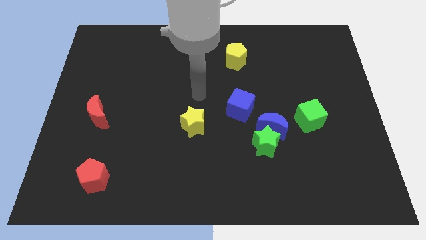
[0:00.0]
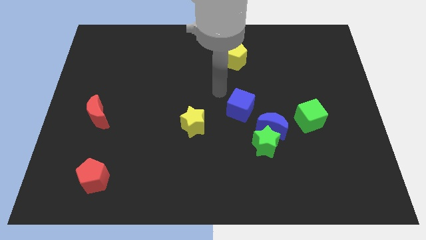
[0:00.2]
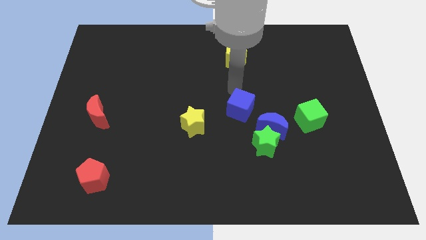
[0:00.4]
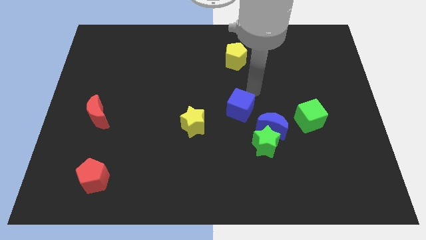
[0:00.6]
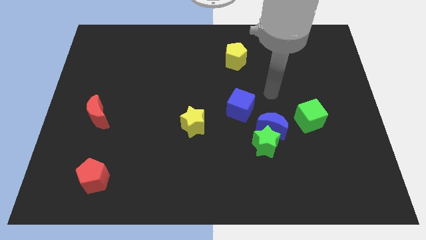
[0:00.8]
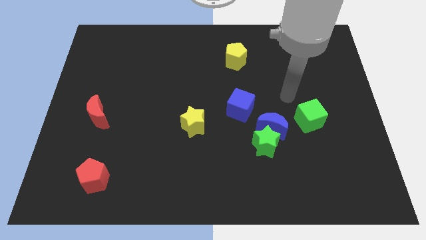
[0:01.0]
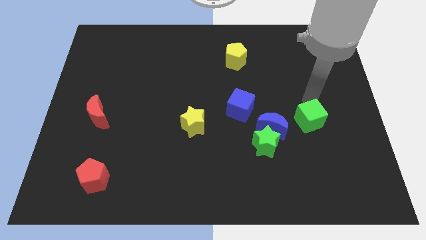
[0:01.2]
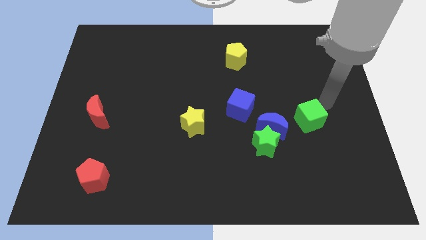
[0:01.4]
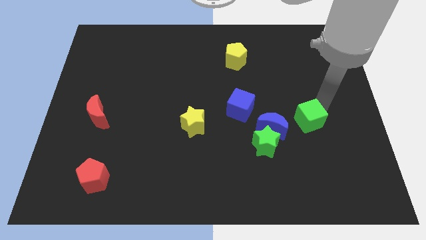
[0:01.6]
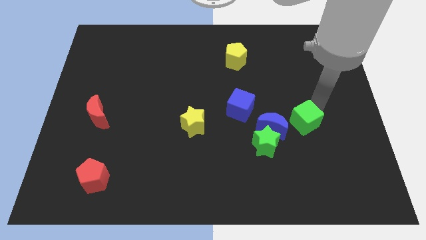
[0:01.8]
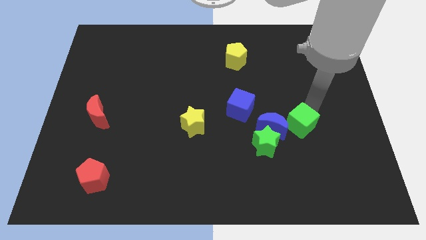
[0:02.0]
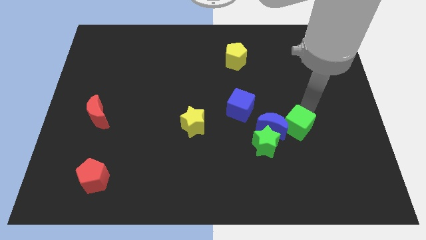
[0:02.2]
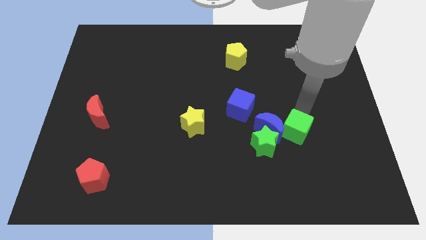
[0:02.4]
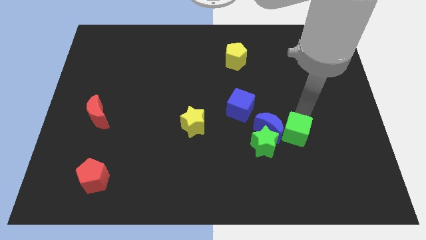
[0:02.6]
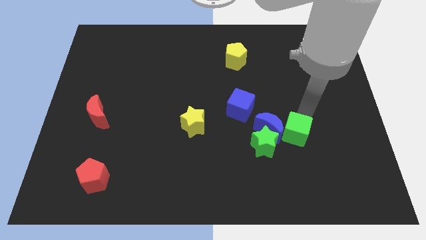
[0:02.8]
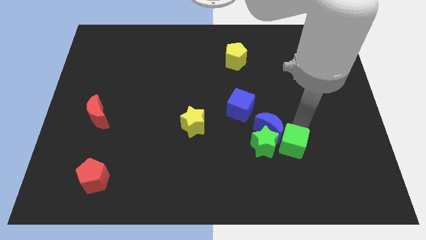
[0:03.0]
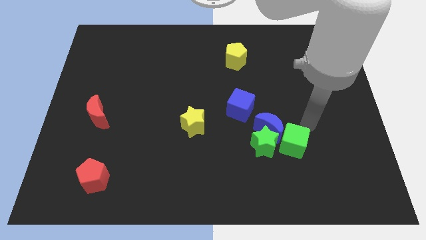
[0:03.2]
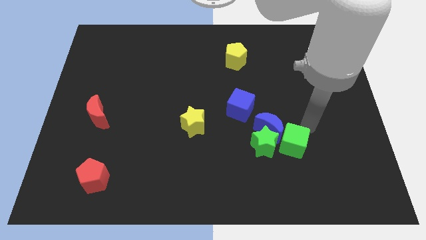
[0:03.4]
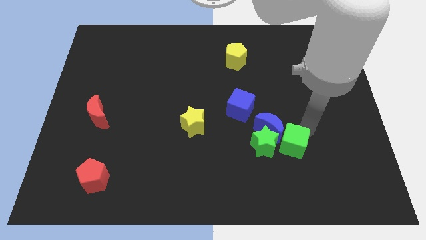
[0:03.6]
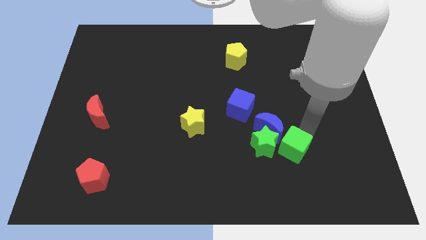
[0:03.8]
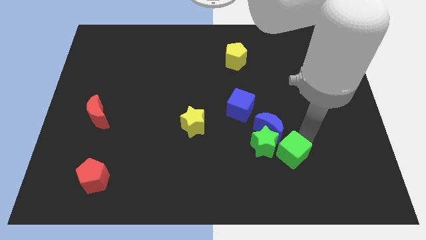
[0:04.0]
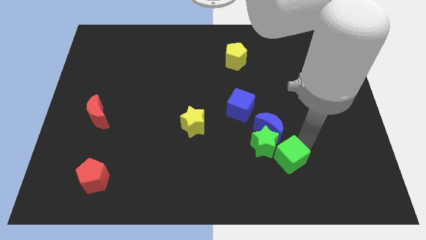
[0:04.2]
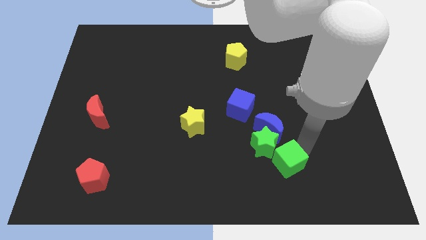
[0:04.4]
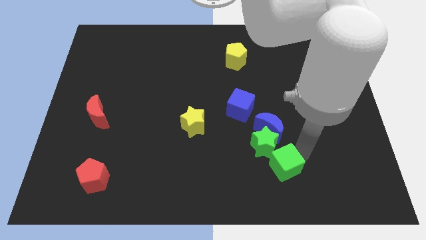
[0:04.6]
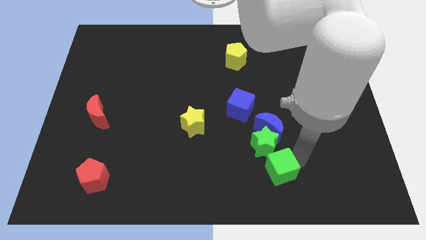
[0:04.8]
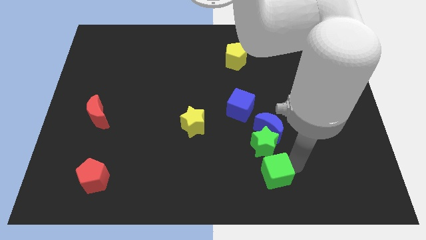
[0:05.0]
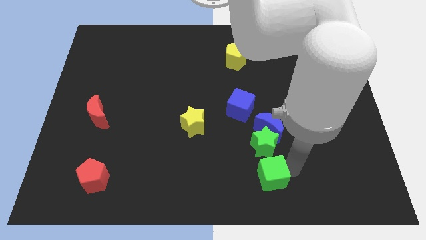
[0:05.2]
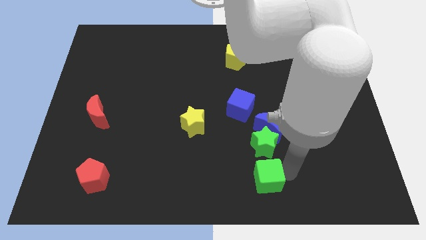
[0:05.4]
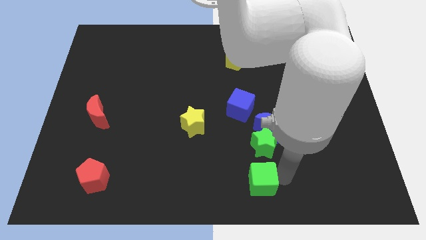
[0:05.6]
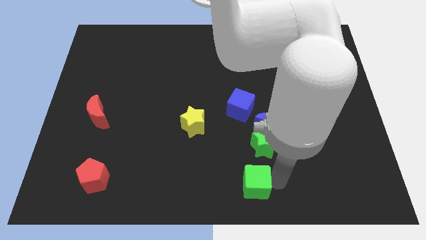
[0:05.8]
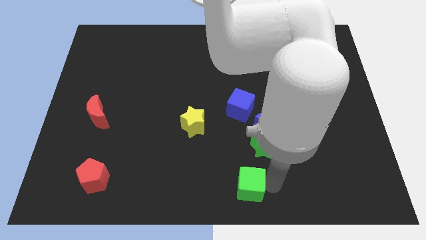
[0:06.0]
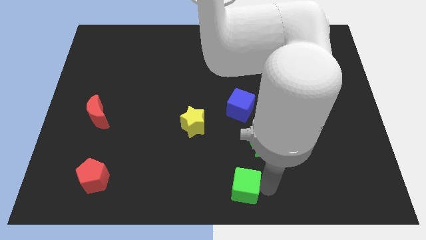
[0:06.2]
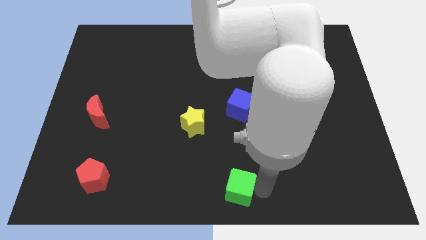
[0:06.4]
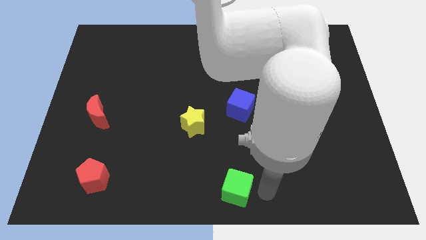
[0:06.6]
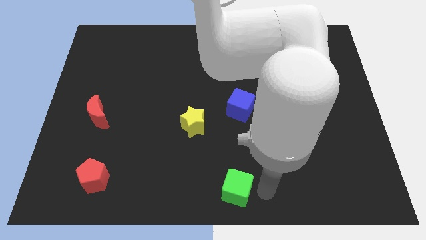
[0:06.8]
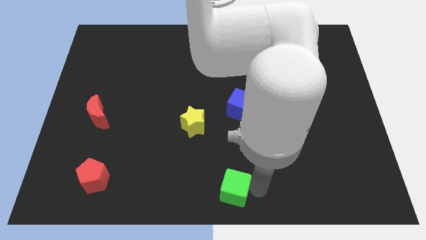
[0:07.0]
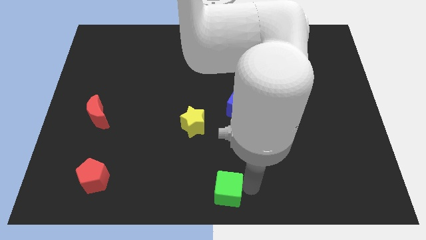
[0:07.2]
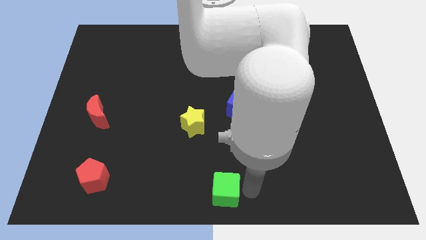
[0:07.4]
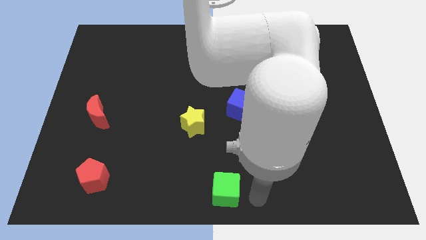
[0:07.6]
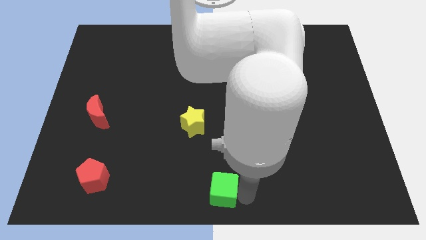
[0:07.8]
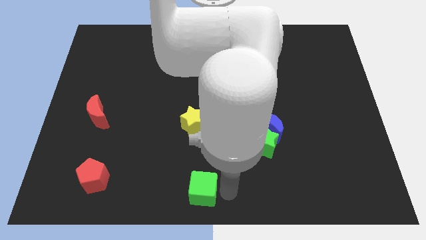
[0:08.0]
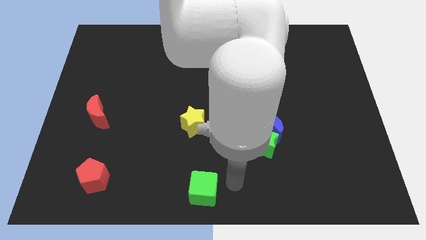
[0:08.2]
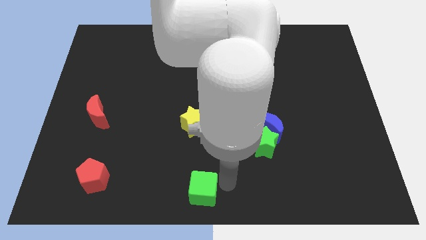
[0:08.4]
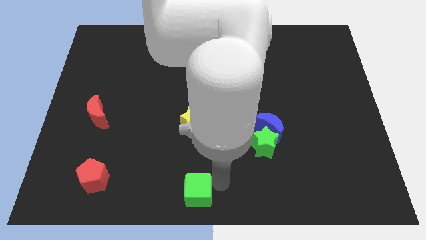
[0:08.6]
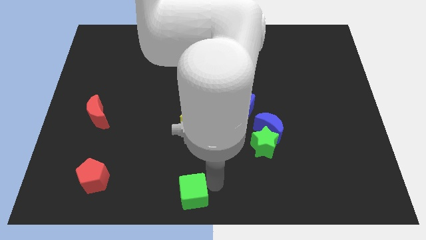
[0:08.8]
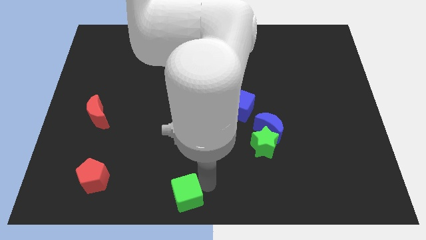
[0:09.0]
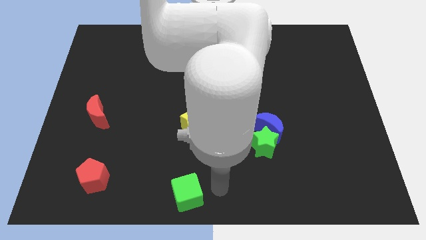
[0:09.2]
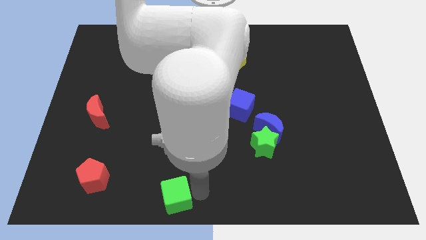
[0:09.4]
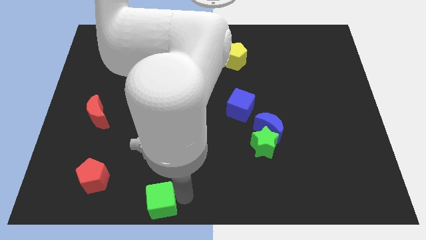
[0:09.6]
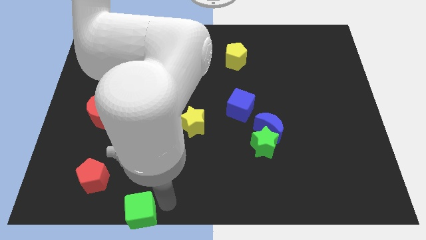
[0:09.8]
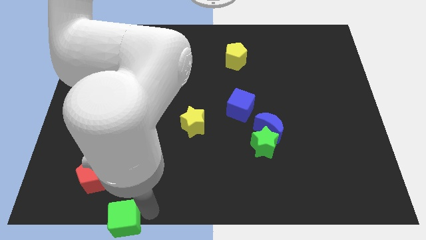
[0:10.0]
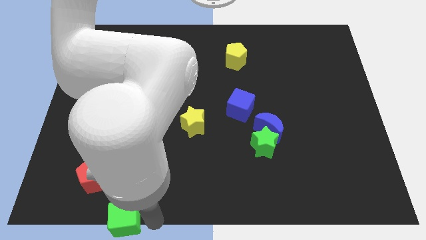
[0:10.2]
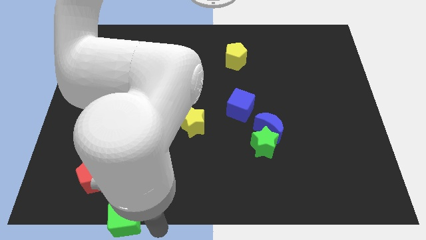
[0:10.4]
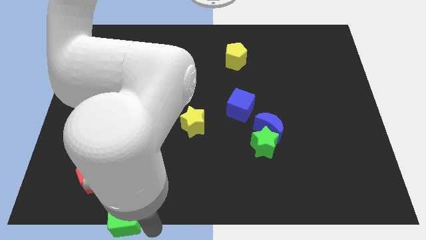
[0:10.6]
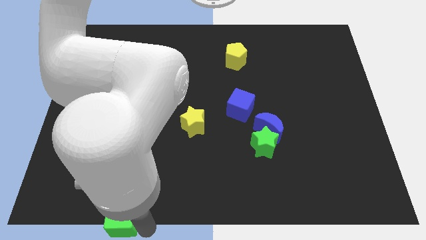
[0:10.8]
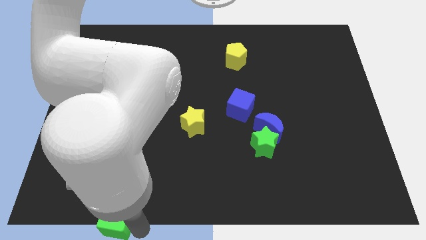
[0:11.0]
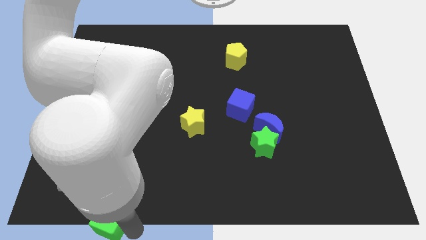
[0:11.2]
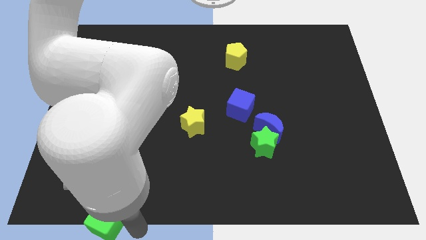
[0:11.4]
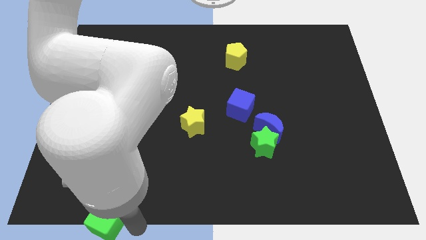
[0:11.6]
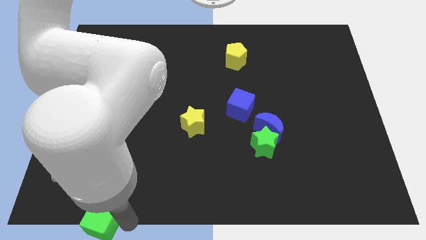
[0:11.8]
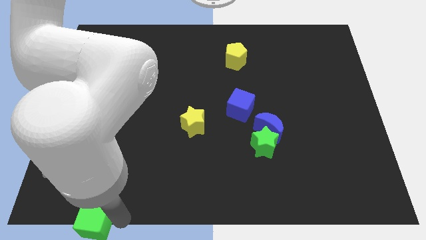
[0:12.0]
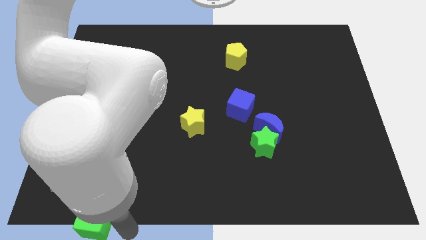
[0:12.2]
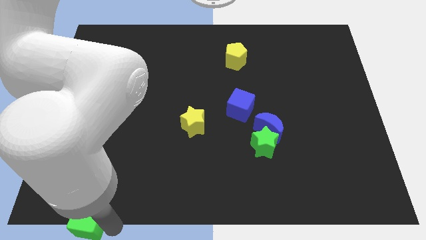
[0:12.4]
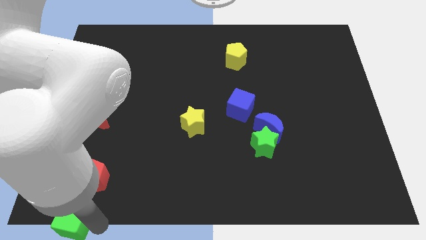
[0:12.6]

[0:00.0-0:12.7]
move the green cube to the bottom left
